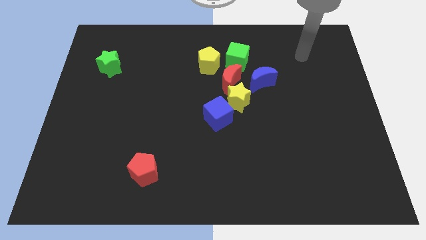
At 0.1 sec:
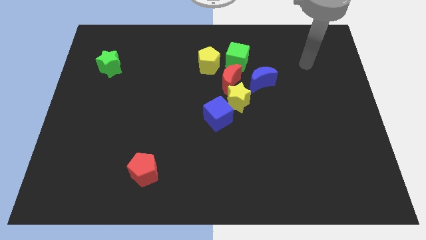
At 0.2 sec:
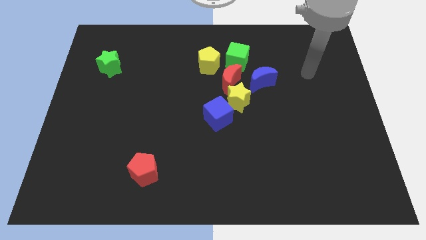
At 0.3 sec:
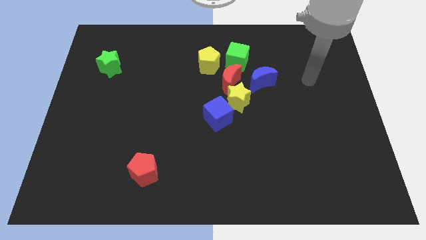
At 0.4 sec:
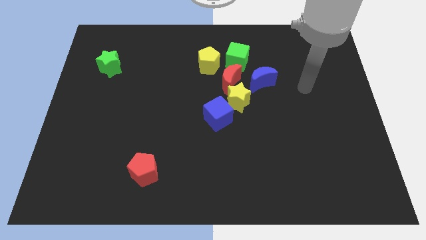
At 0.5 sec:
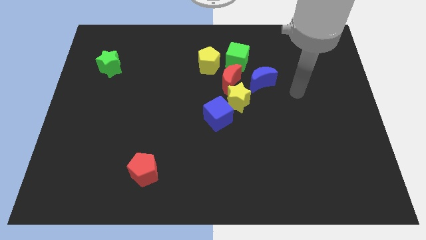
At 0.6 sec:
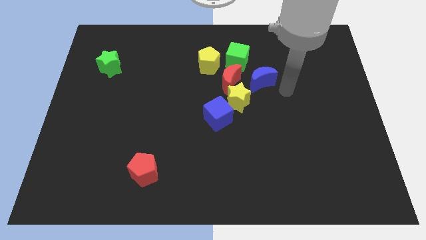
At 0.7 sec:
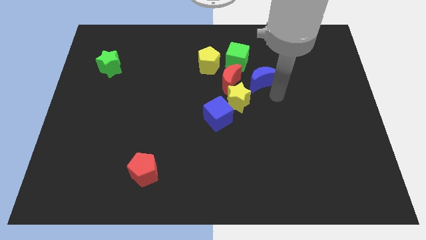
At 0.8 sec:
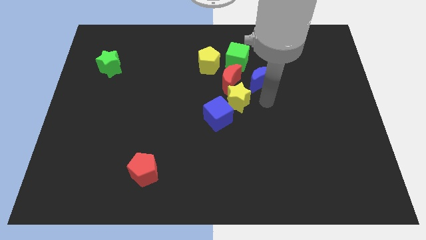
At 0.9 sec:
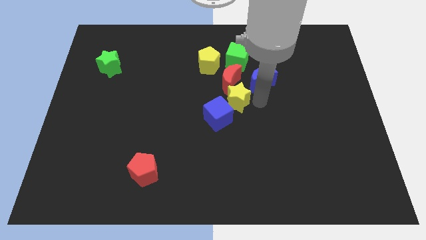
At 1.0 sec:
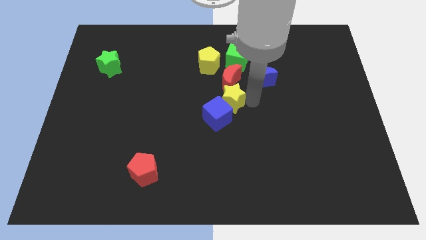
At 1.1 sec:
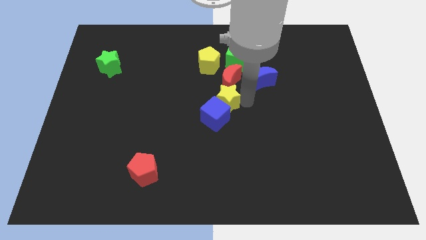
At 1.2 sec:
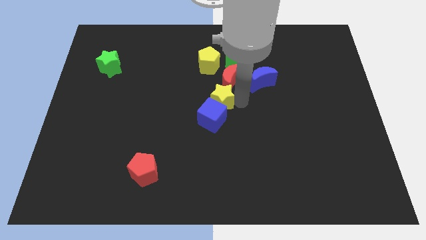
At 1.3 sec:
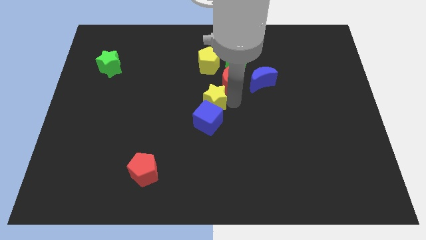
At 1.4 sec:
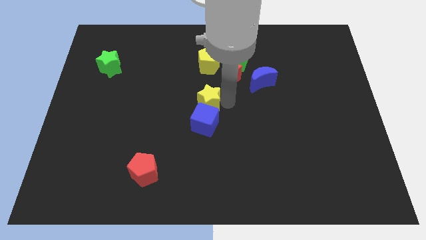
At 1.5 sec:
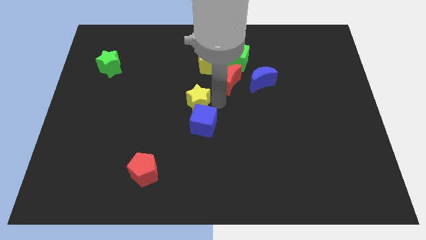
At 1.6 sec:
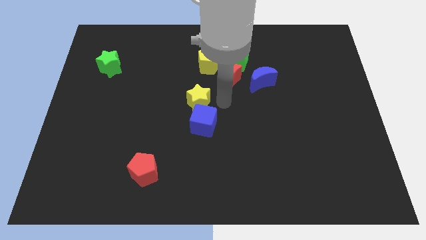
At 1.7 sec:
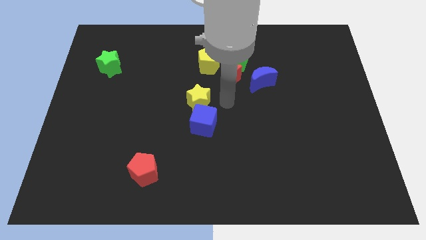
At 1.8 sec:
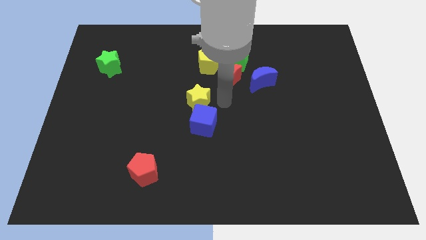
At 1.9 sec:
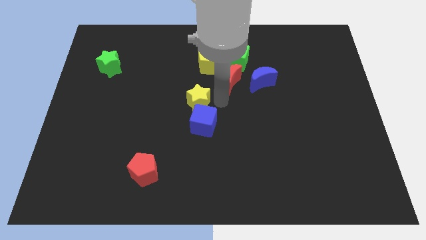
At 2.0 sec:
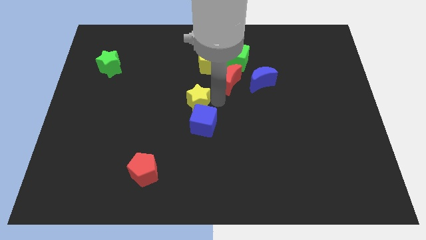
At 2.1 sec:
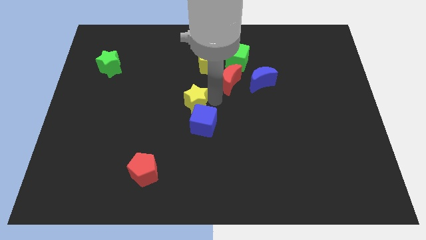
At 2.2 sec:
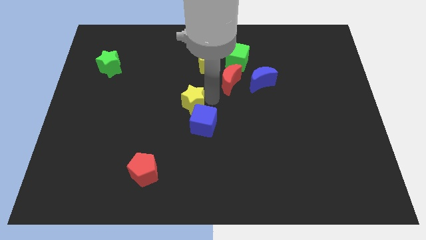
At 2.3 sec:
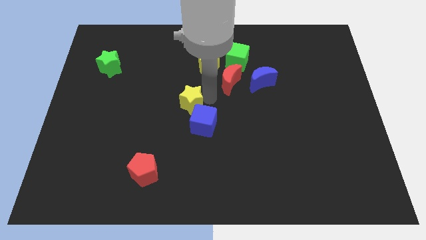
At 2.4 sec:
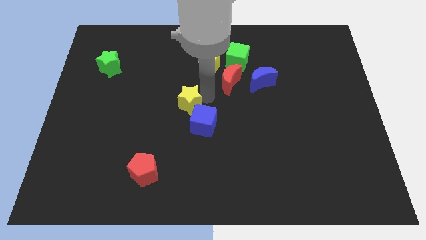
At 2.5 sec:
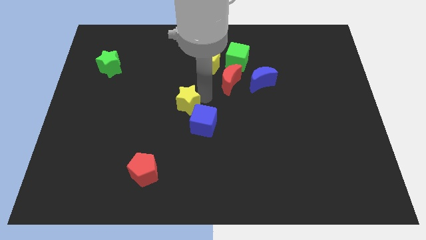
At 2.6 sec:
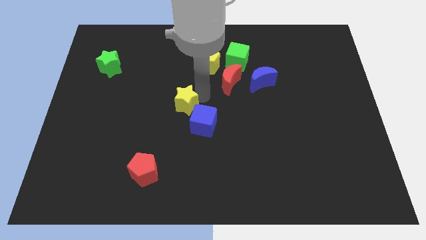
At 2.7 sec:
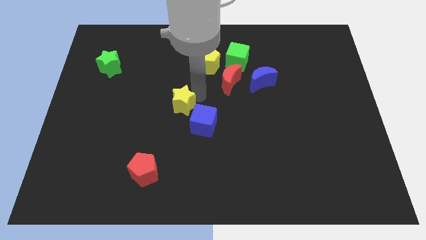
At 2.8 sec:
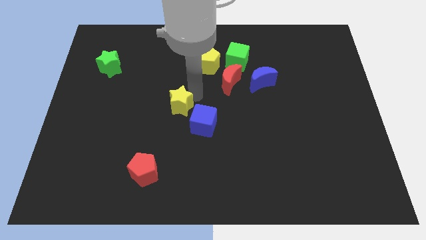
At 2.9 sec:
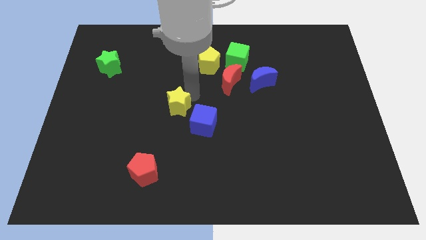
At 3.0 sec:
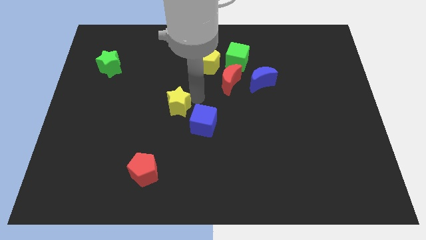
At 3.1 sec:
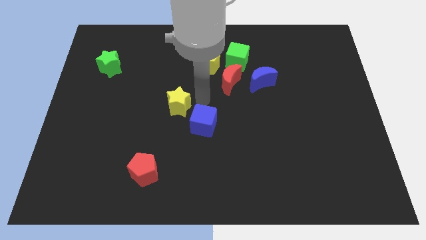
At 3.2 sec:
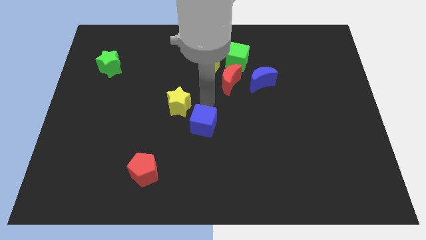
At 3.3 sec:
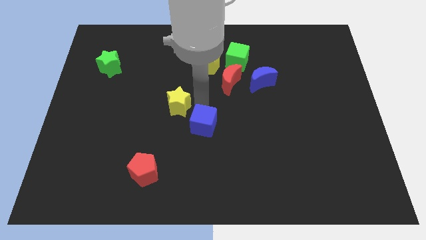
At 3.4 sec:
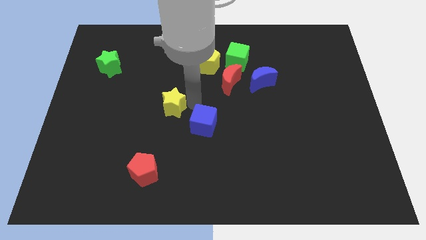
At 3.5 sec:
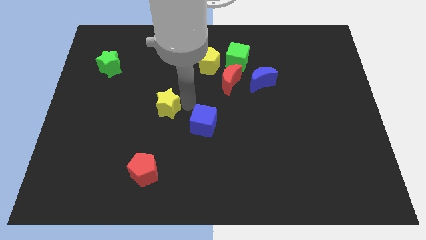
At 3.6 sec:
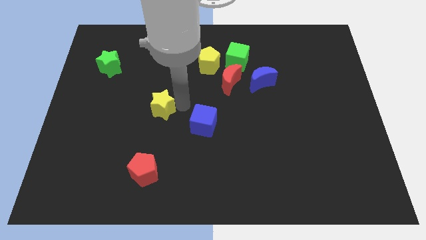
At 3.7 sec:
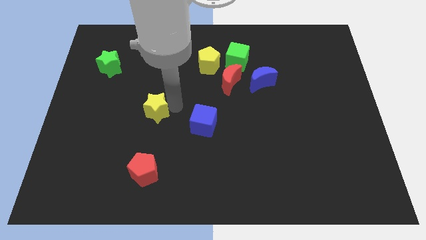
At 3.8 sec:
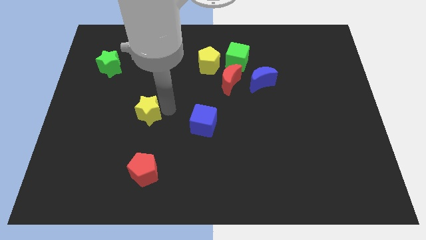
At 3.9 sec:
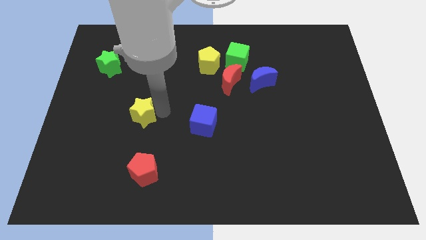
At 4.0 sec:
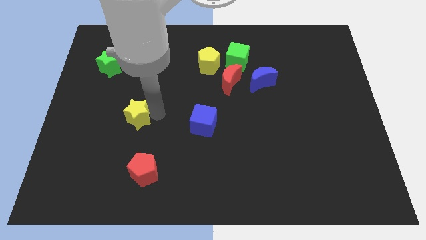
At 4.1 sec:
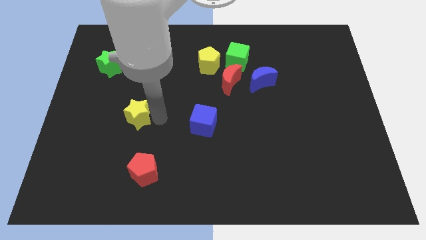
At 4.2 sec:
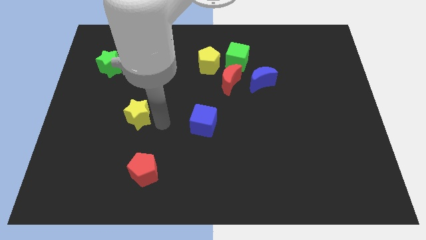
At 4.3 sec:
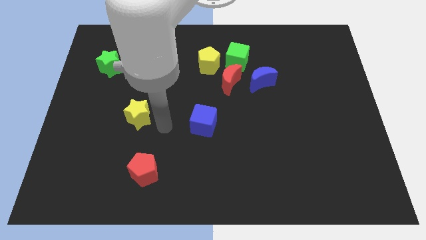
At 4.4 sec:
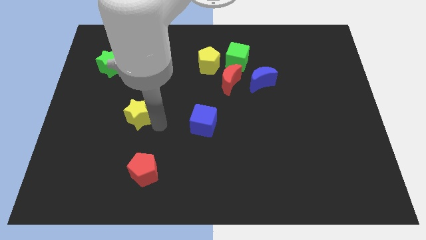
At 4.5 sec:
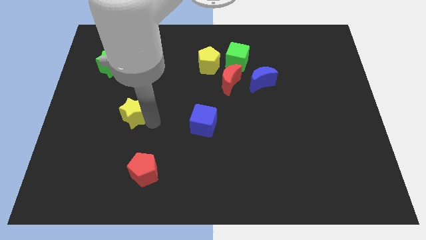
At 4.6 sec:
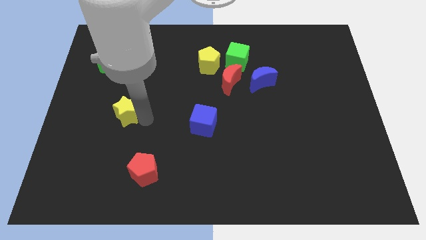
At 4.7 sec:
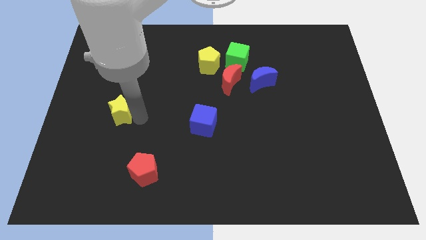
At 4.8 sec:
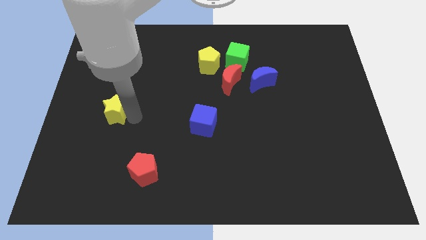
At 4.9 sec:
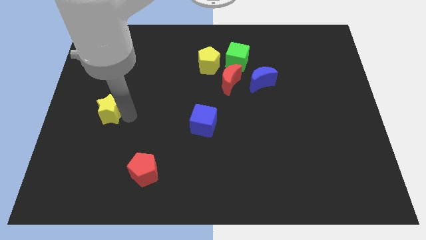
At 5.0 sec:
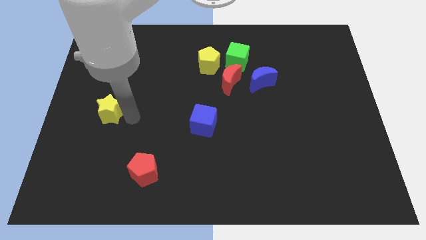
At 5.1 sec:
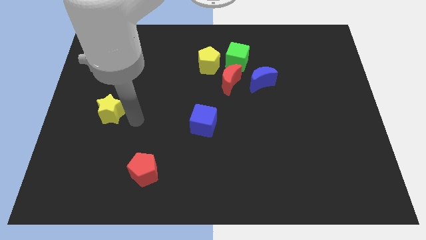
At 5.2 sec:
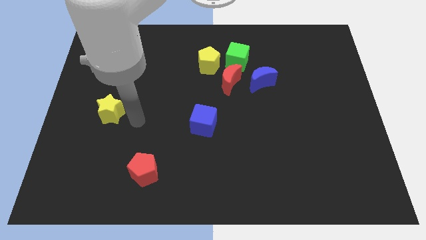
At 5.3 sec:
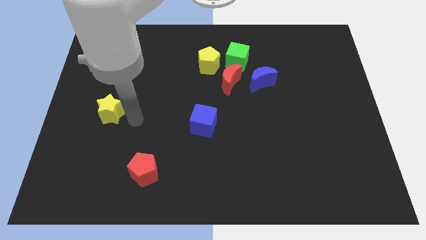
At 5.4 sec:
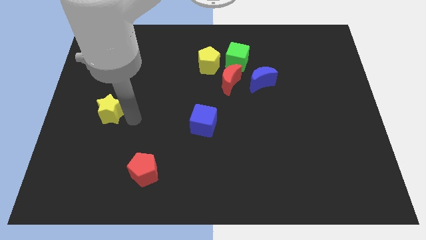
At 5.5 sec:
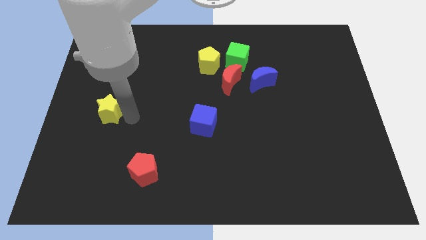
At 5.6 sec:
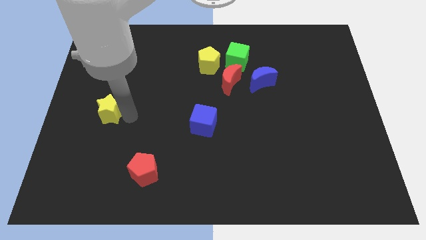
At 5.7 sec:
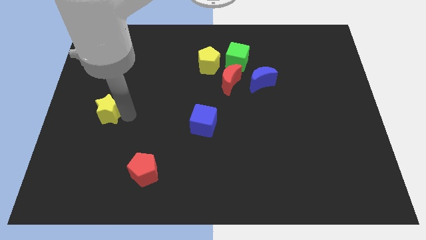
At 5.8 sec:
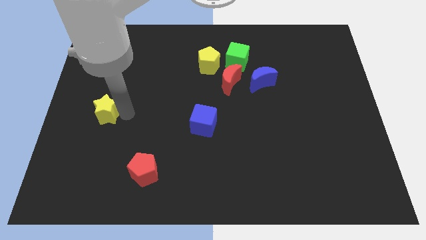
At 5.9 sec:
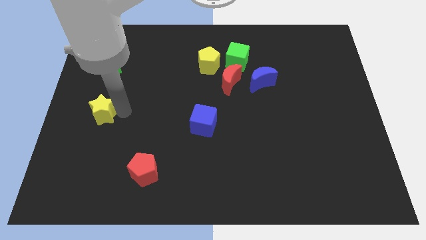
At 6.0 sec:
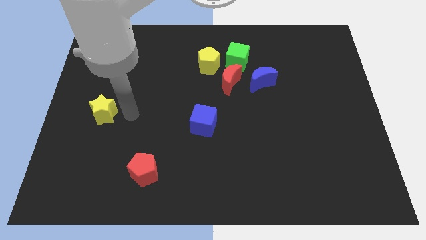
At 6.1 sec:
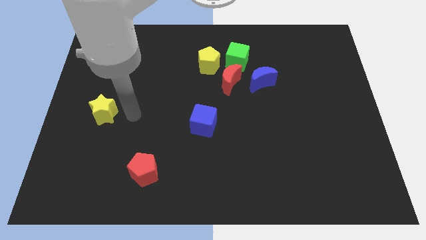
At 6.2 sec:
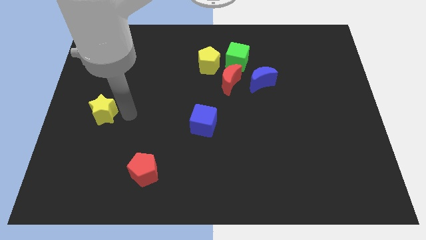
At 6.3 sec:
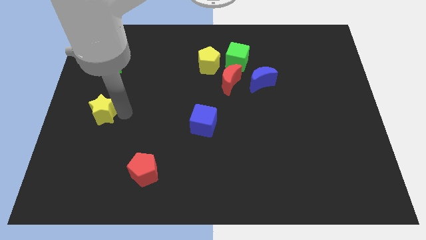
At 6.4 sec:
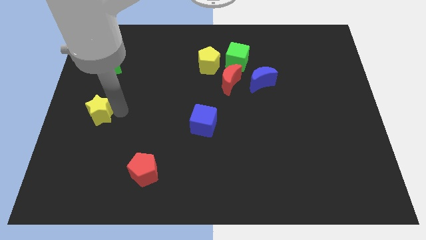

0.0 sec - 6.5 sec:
push the yellow star to the center left

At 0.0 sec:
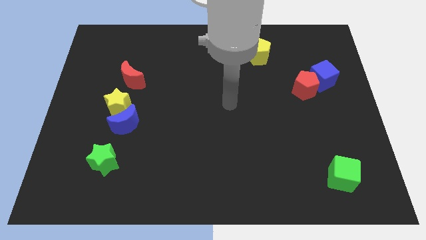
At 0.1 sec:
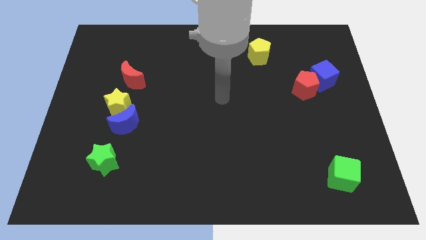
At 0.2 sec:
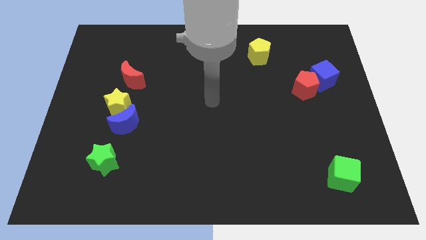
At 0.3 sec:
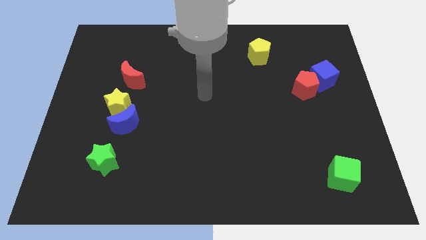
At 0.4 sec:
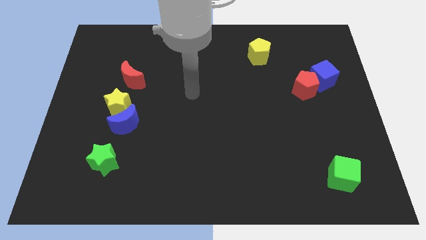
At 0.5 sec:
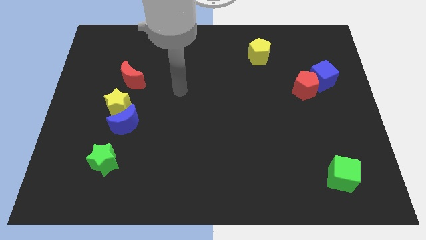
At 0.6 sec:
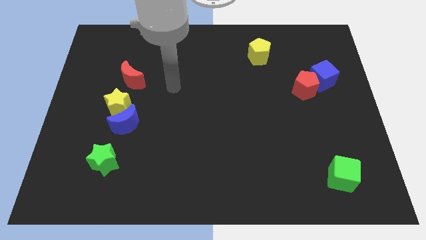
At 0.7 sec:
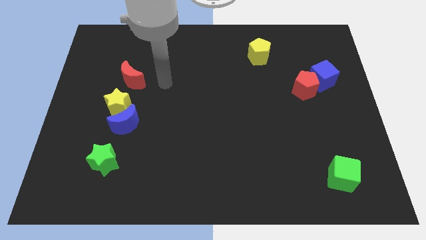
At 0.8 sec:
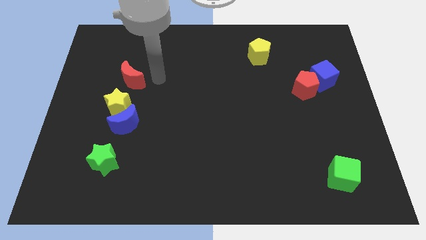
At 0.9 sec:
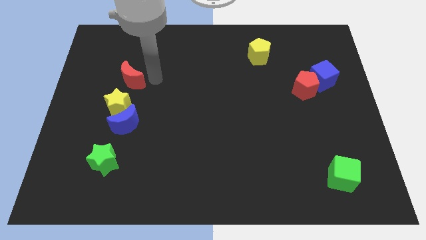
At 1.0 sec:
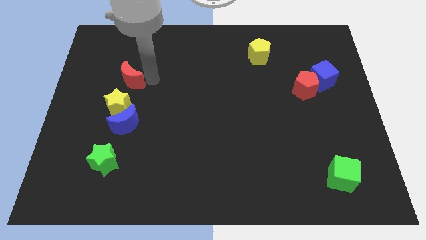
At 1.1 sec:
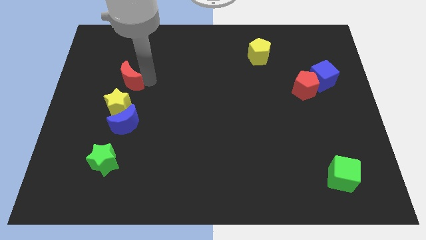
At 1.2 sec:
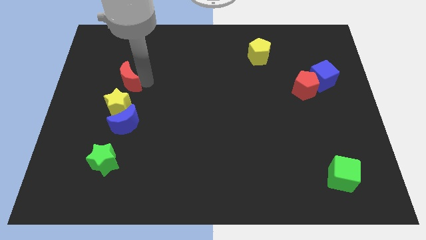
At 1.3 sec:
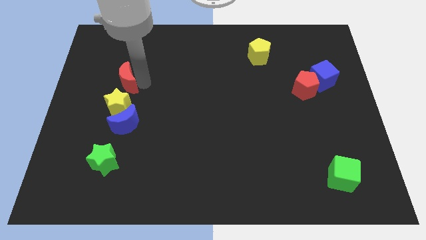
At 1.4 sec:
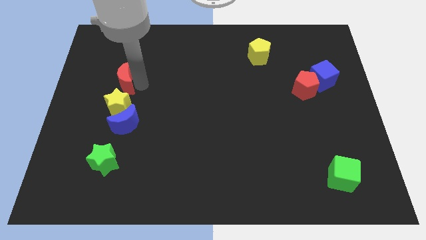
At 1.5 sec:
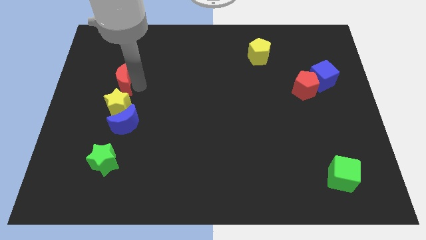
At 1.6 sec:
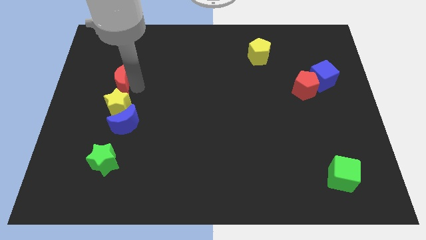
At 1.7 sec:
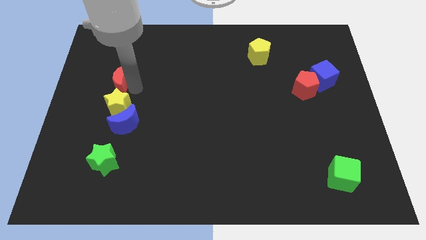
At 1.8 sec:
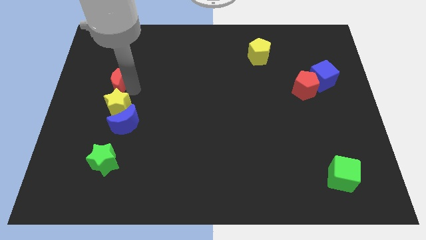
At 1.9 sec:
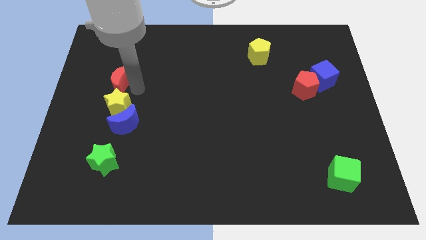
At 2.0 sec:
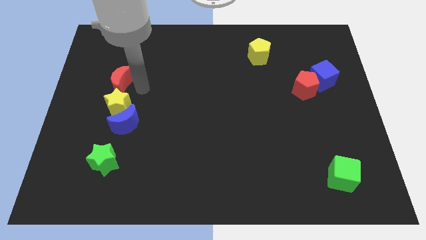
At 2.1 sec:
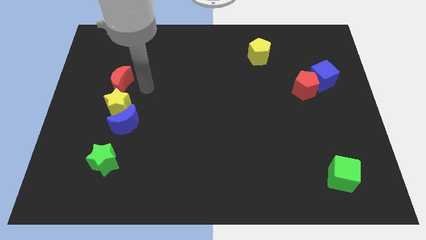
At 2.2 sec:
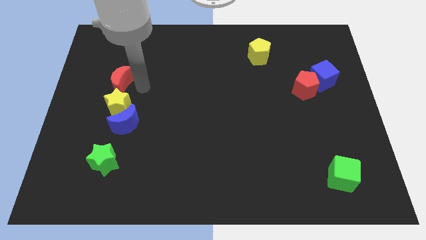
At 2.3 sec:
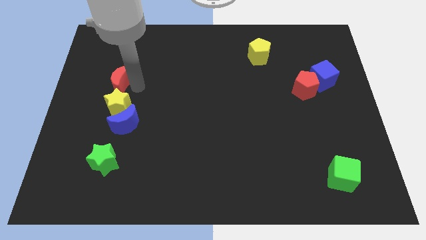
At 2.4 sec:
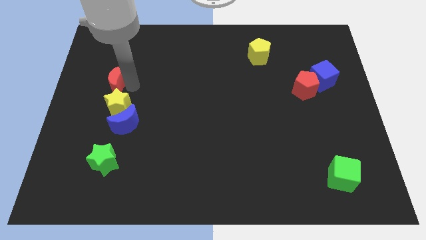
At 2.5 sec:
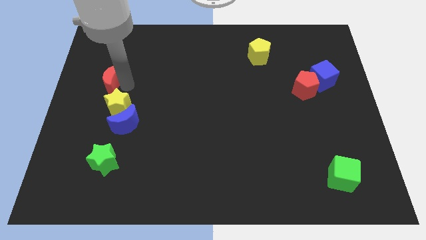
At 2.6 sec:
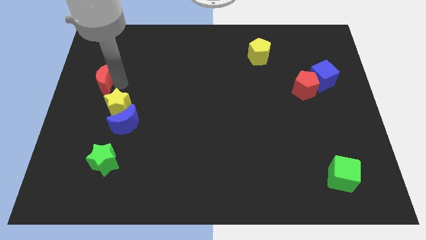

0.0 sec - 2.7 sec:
move the red moon to the left side of the board
